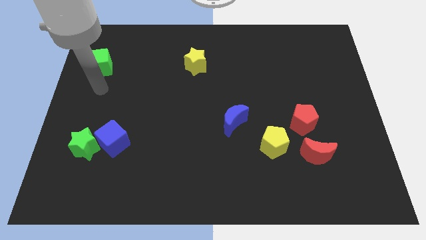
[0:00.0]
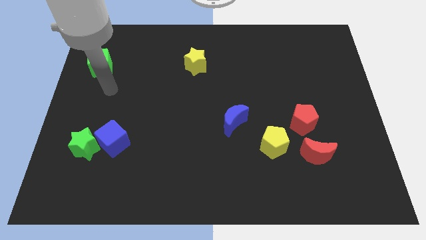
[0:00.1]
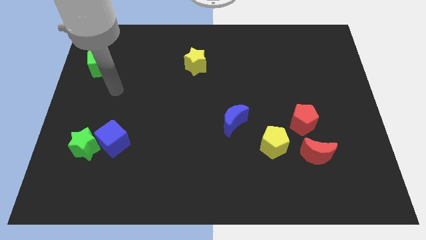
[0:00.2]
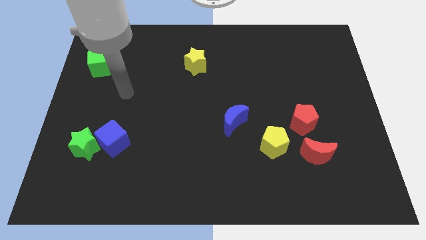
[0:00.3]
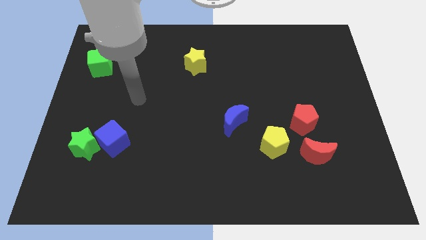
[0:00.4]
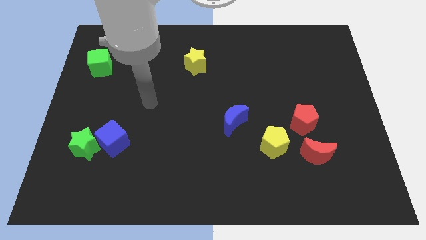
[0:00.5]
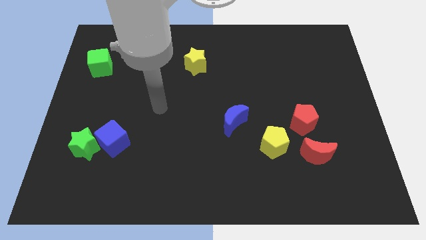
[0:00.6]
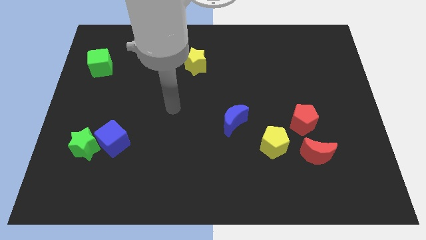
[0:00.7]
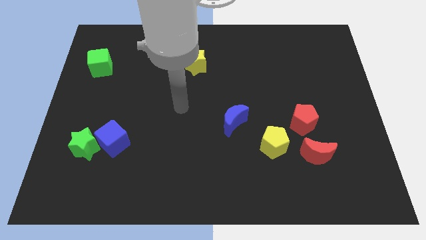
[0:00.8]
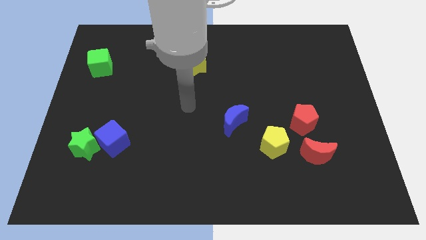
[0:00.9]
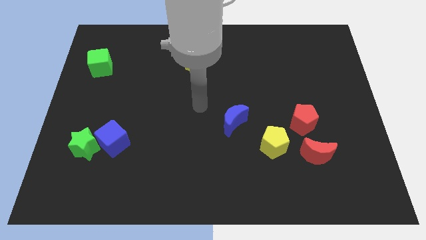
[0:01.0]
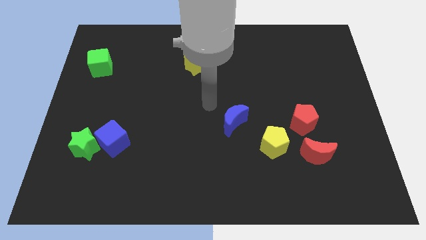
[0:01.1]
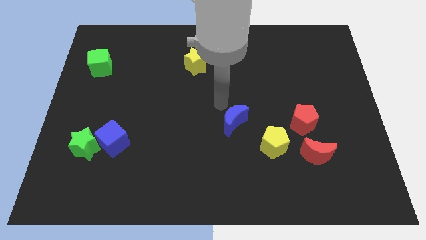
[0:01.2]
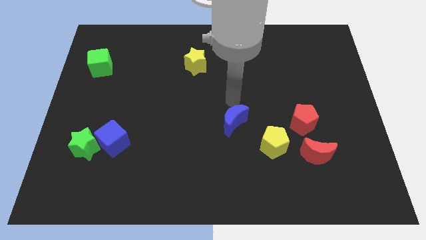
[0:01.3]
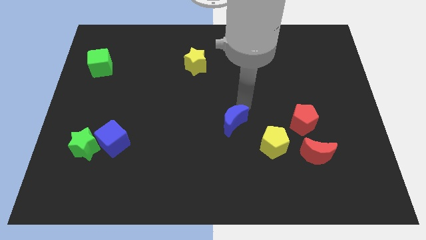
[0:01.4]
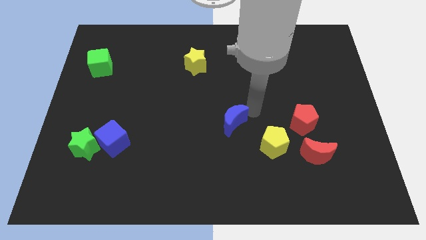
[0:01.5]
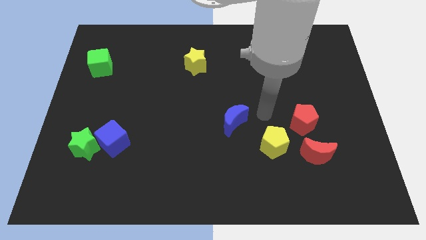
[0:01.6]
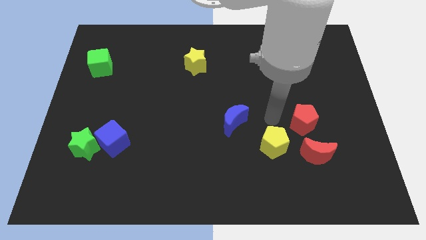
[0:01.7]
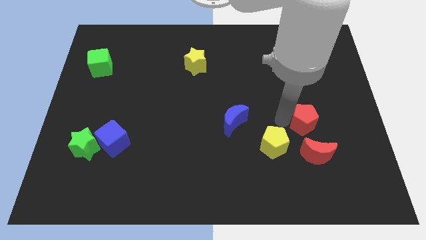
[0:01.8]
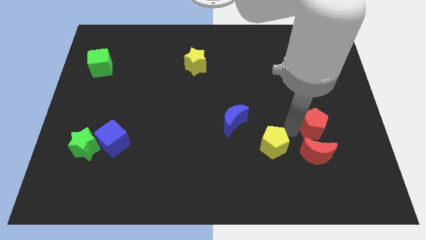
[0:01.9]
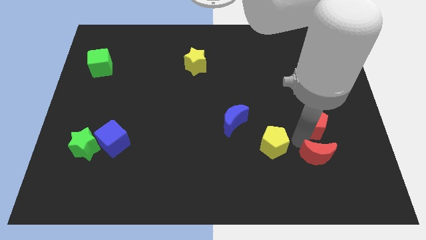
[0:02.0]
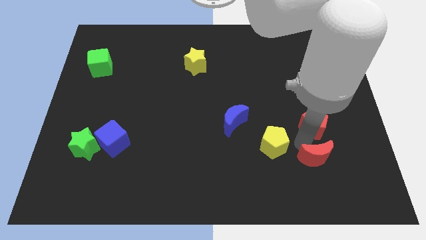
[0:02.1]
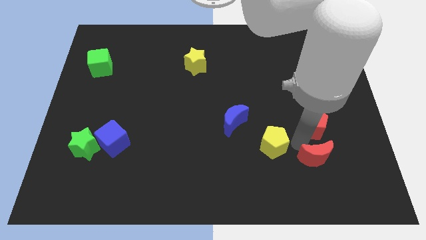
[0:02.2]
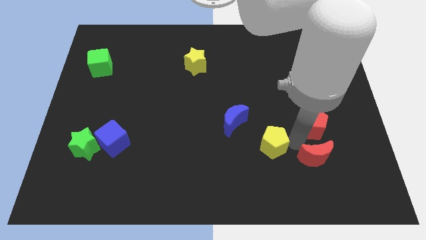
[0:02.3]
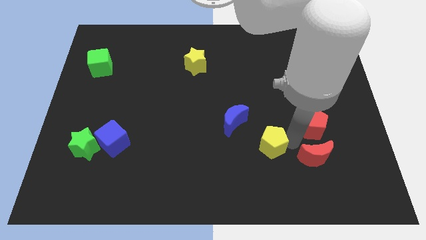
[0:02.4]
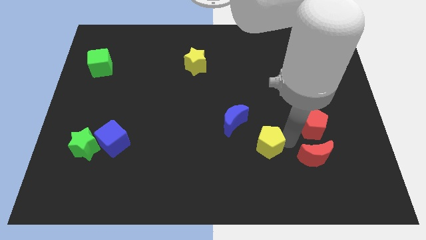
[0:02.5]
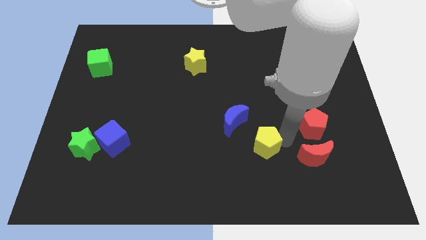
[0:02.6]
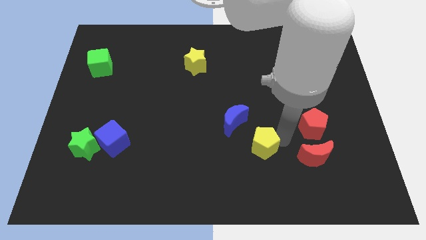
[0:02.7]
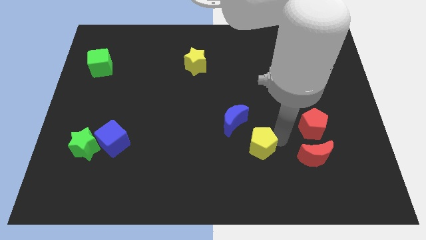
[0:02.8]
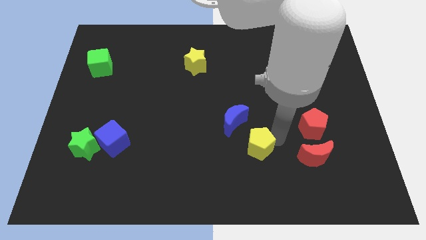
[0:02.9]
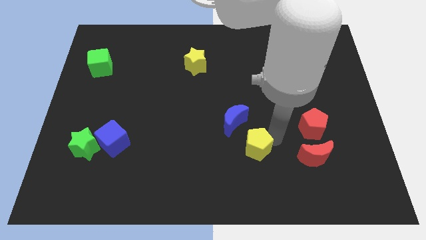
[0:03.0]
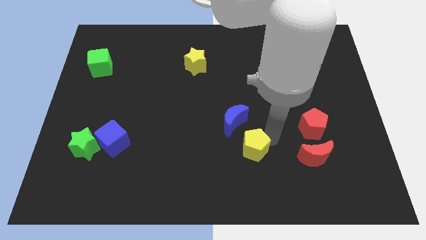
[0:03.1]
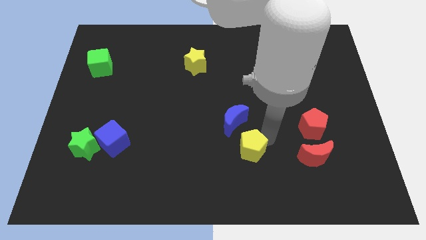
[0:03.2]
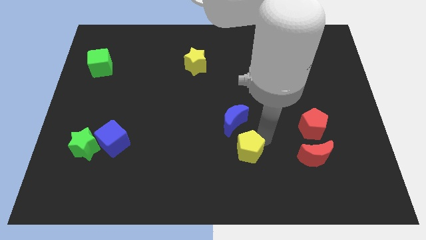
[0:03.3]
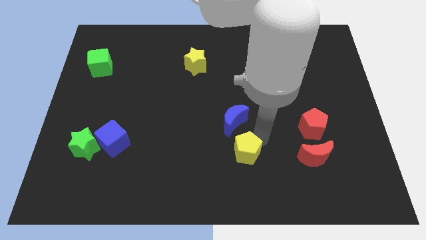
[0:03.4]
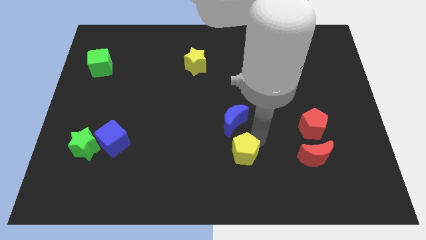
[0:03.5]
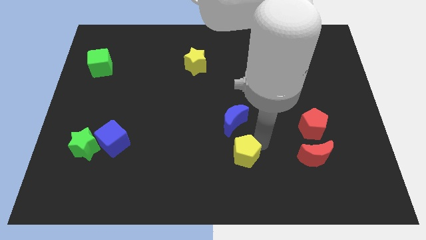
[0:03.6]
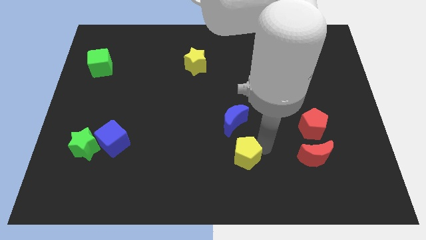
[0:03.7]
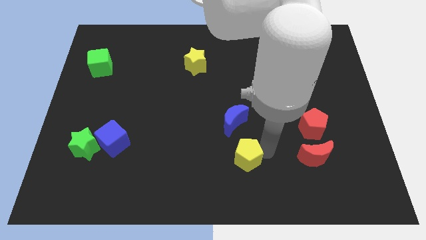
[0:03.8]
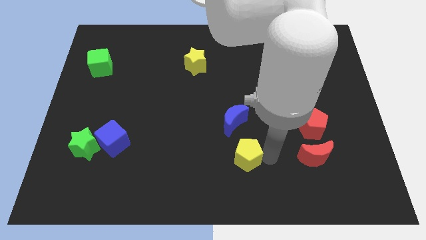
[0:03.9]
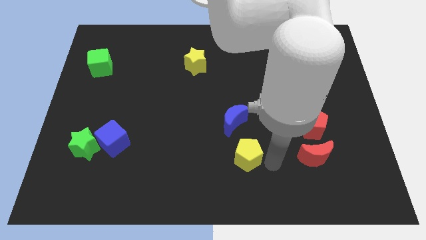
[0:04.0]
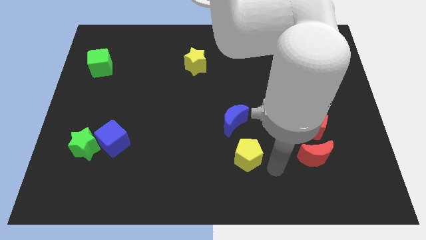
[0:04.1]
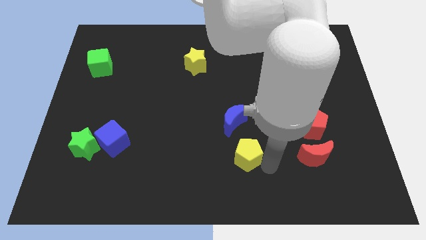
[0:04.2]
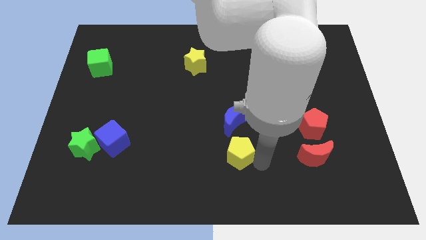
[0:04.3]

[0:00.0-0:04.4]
slightly slide the yellow pentagon to the left

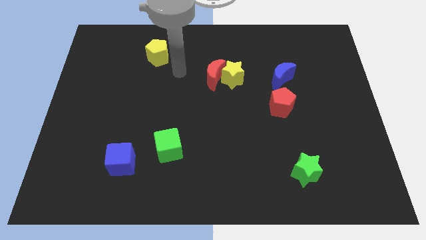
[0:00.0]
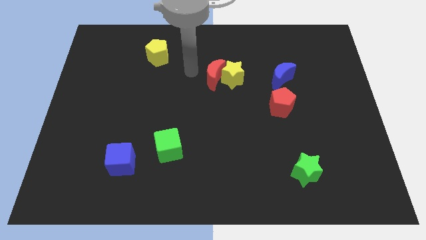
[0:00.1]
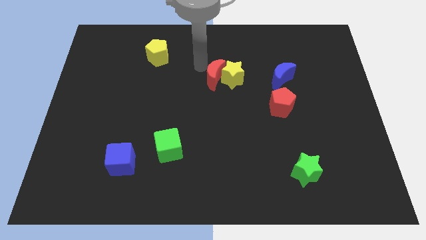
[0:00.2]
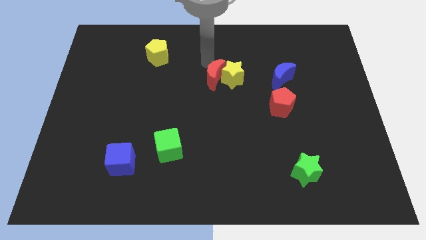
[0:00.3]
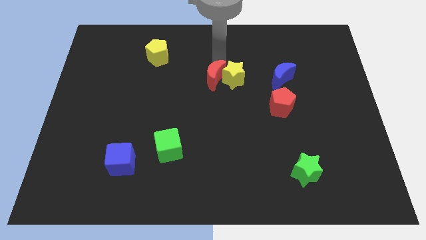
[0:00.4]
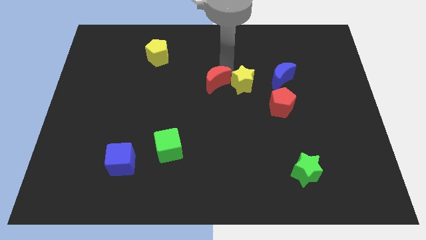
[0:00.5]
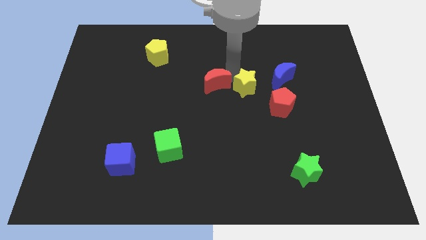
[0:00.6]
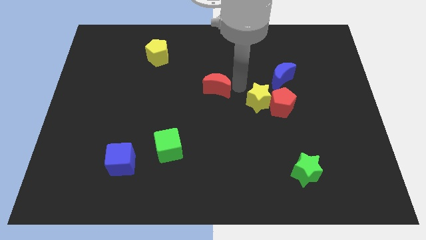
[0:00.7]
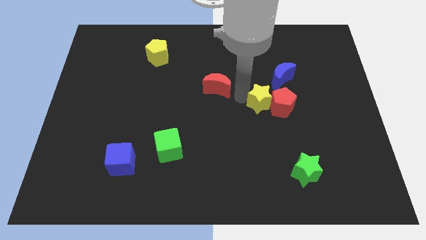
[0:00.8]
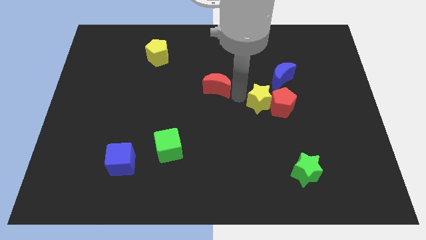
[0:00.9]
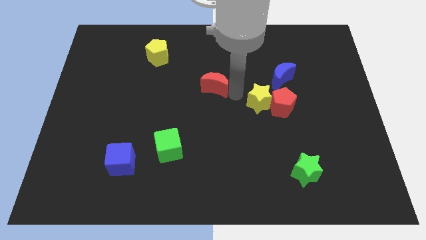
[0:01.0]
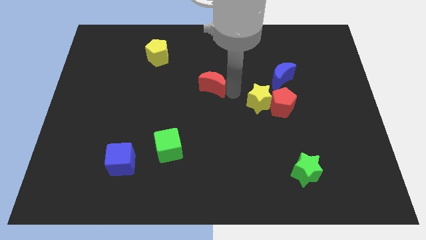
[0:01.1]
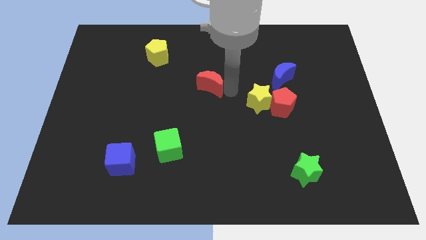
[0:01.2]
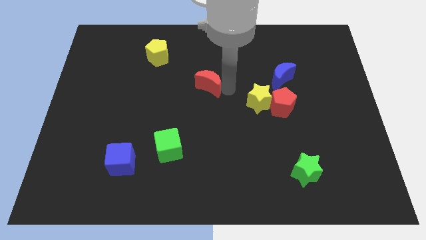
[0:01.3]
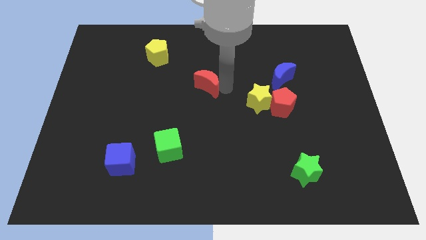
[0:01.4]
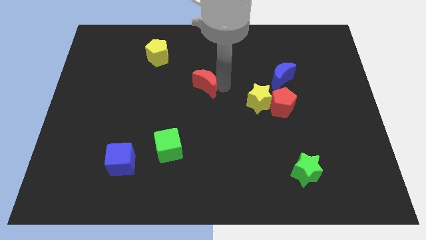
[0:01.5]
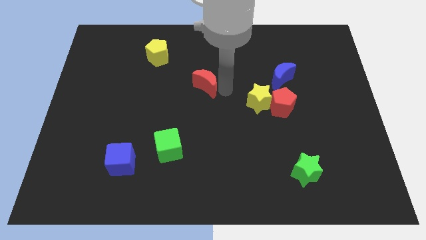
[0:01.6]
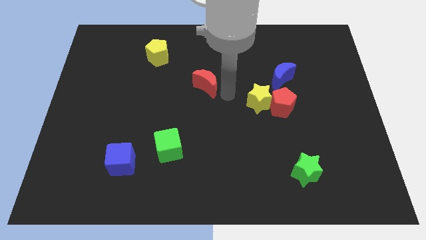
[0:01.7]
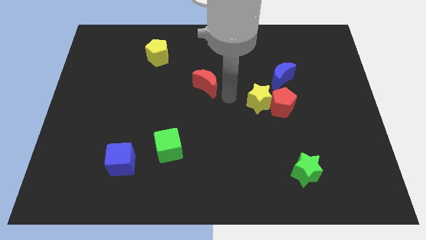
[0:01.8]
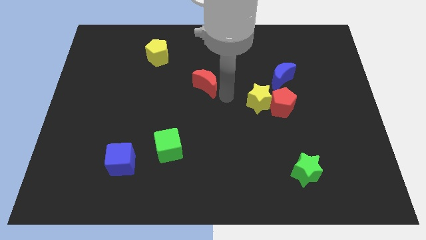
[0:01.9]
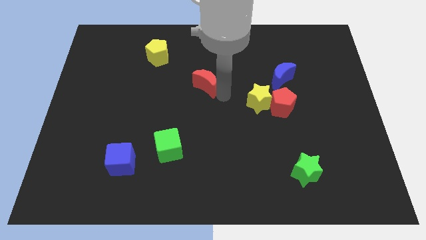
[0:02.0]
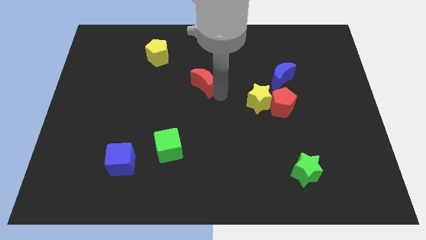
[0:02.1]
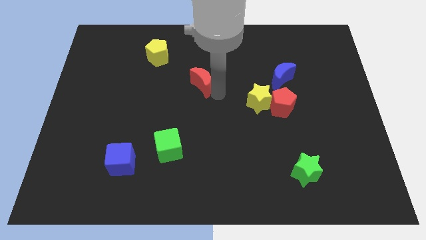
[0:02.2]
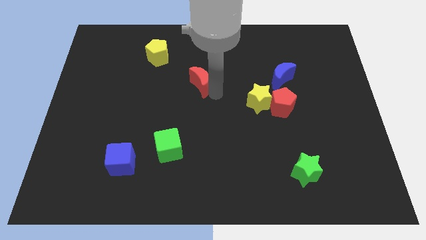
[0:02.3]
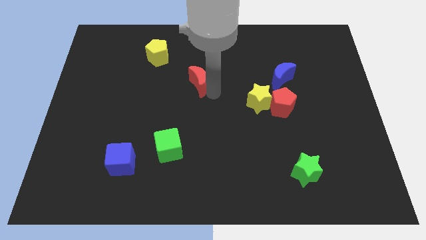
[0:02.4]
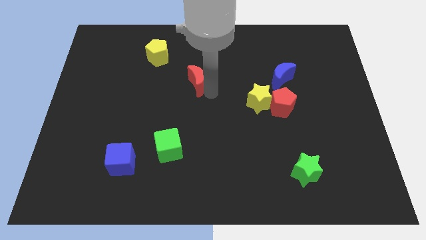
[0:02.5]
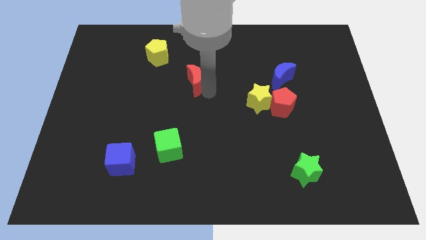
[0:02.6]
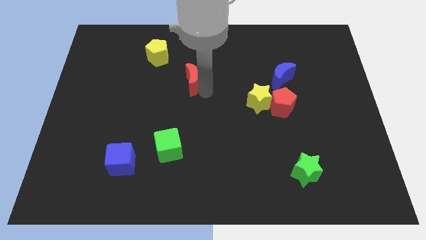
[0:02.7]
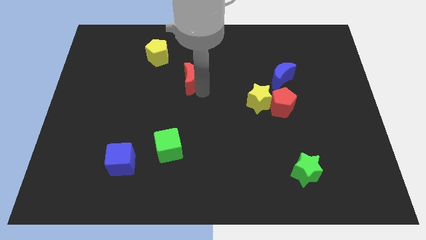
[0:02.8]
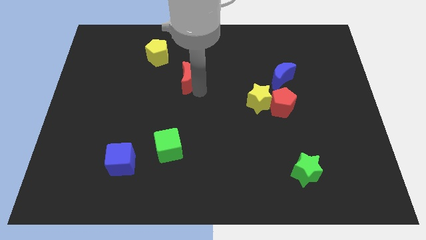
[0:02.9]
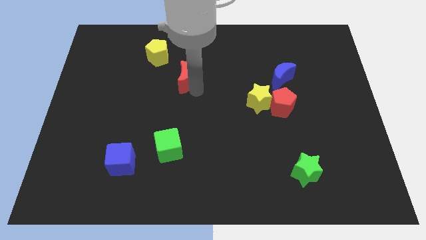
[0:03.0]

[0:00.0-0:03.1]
slightly slide the red moon left

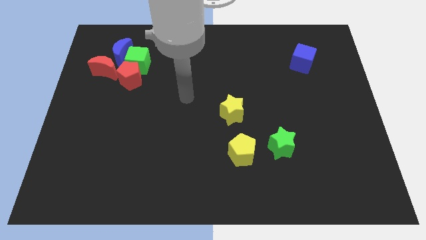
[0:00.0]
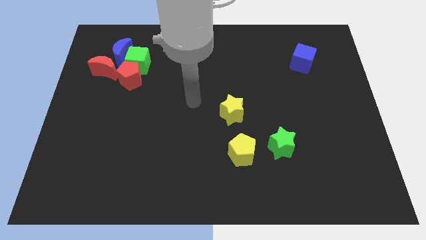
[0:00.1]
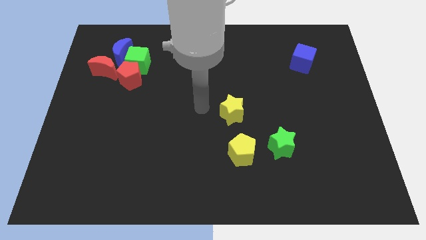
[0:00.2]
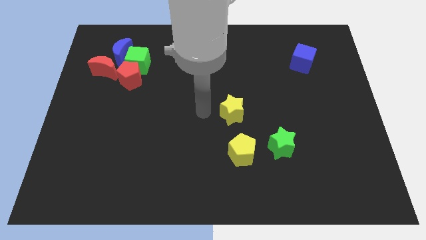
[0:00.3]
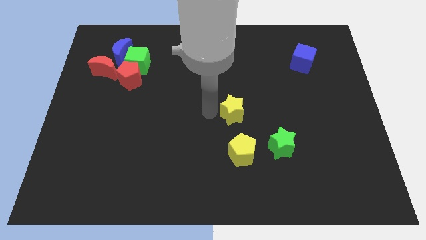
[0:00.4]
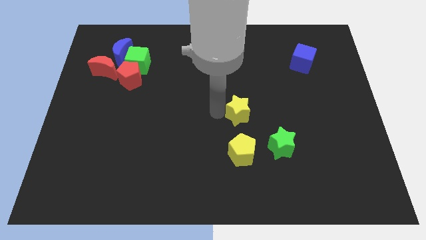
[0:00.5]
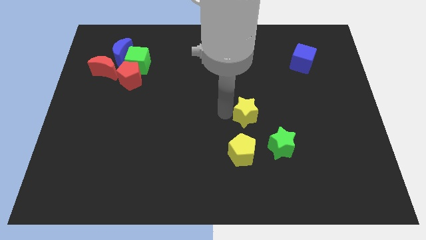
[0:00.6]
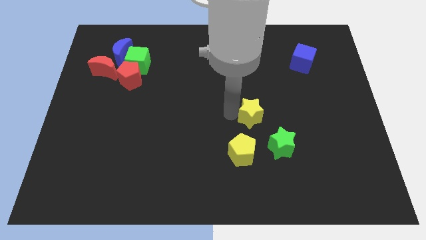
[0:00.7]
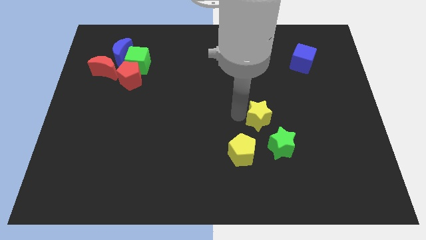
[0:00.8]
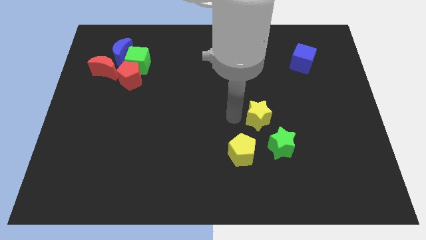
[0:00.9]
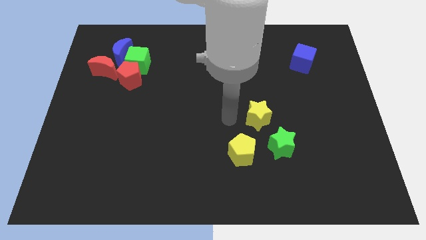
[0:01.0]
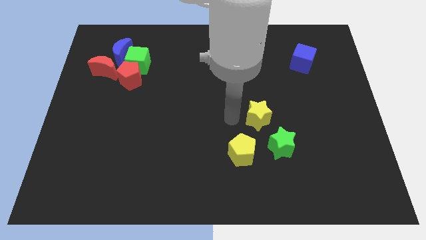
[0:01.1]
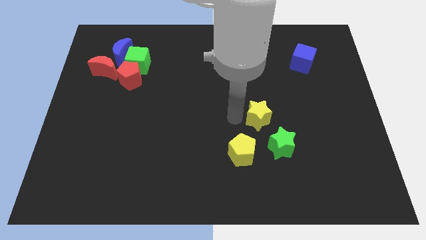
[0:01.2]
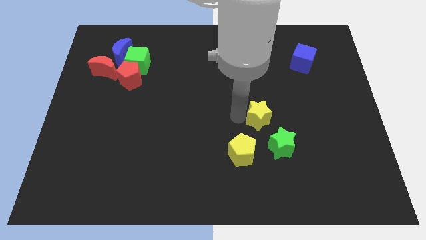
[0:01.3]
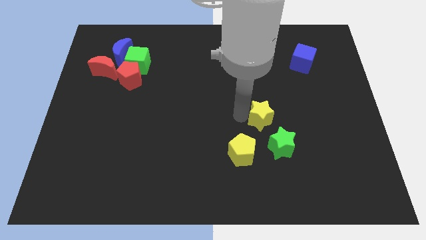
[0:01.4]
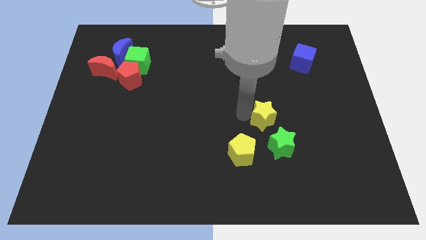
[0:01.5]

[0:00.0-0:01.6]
slide the yellow star to the right a bit
